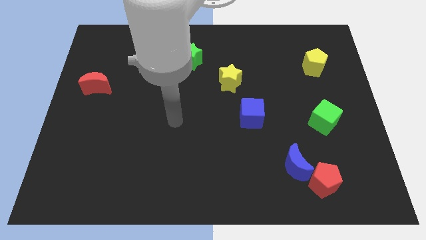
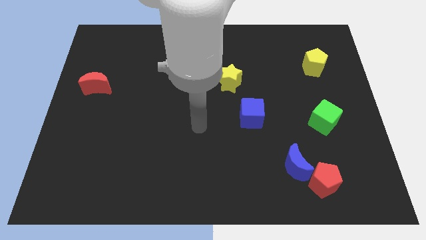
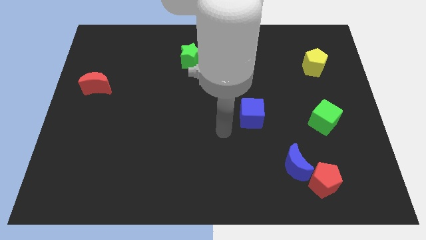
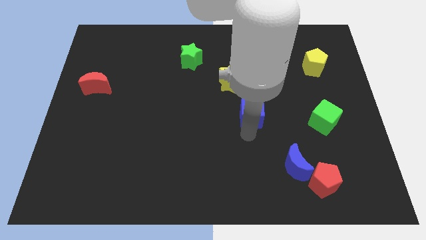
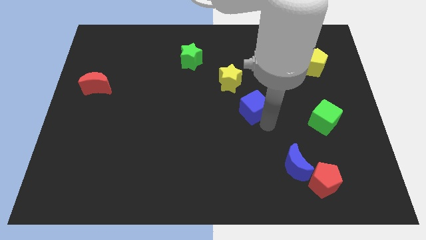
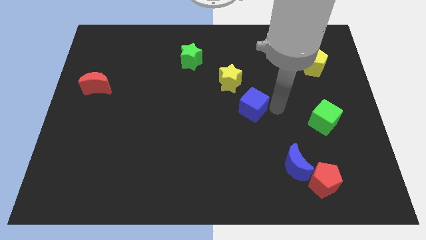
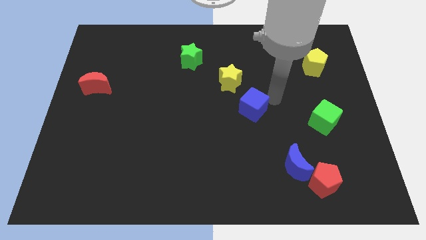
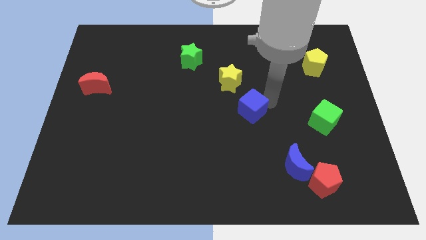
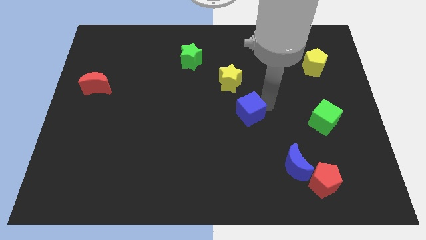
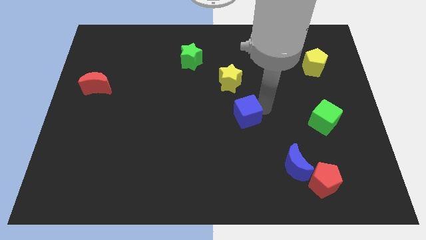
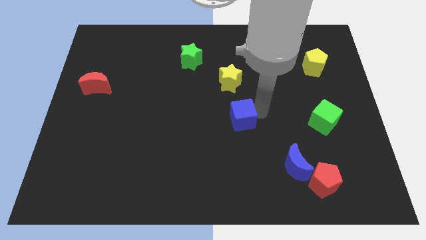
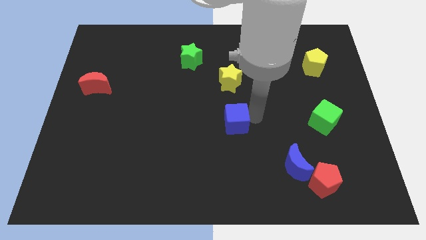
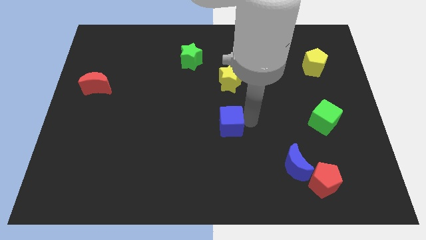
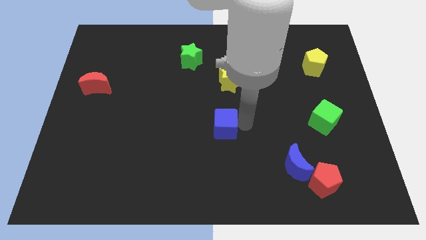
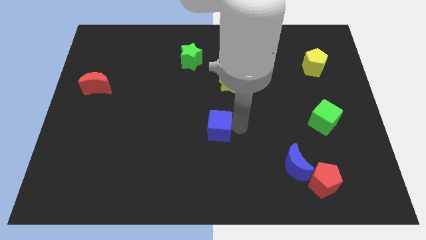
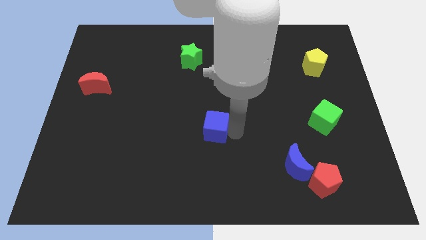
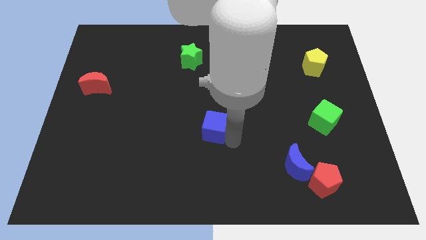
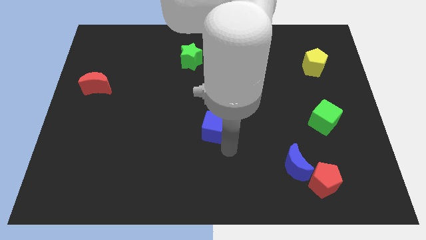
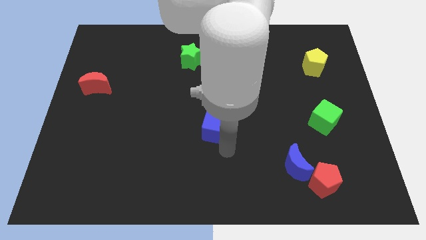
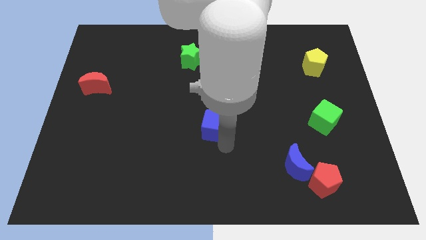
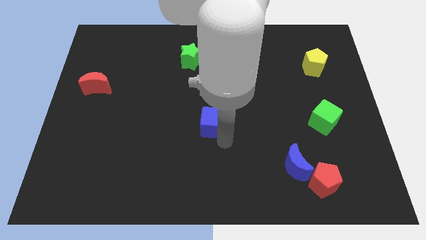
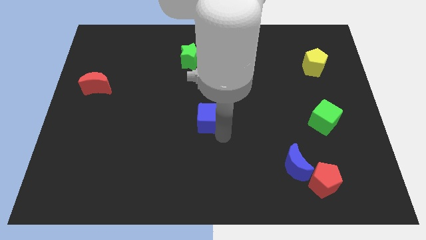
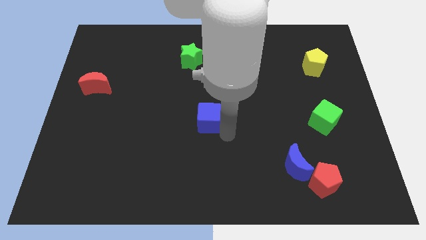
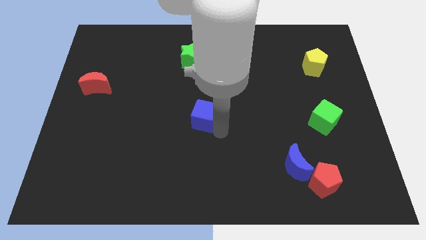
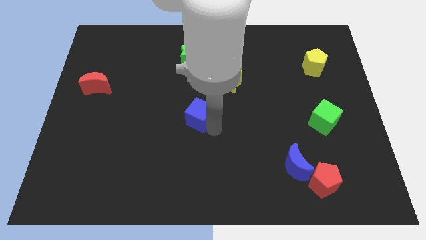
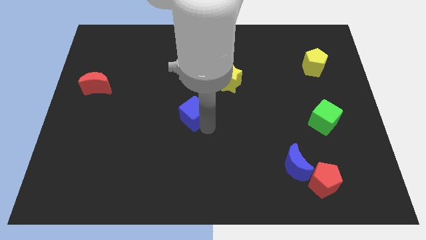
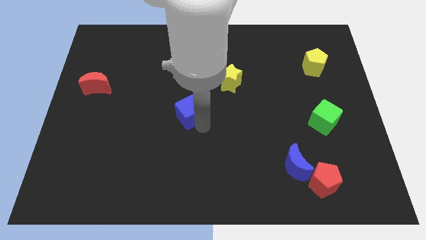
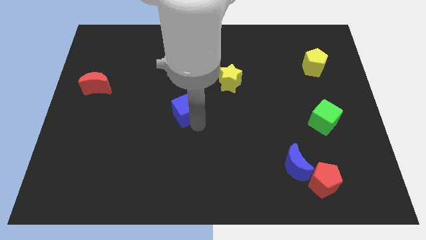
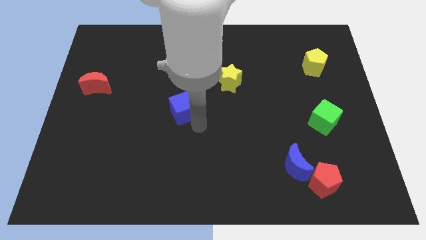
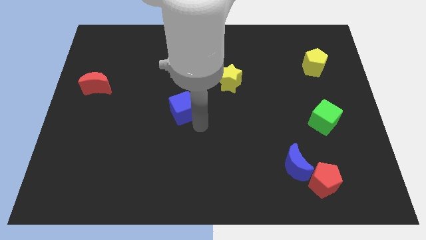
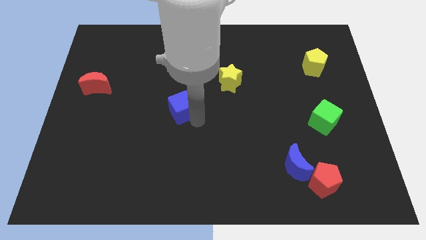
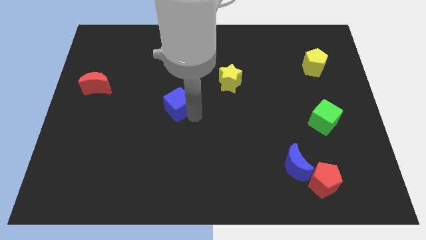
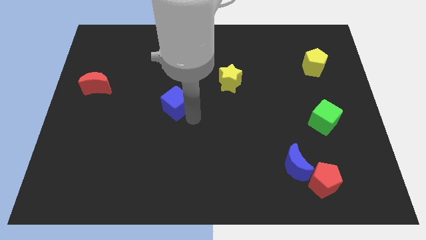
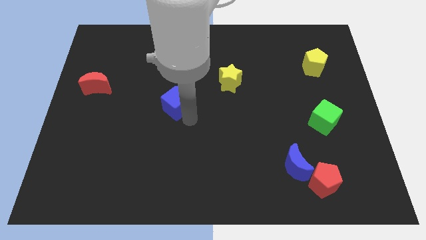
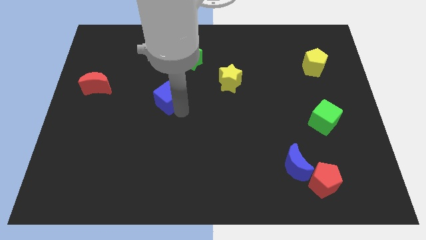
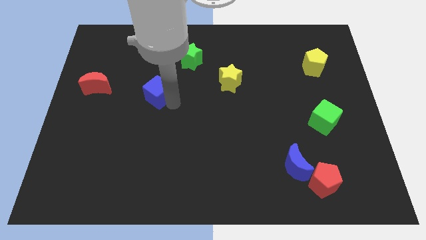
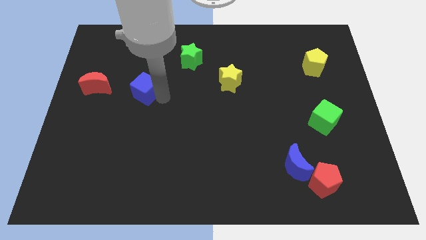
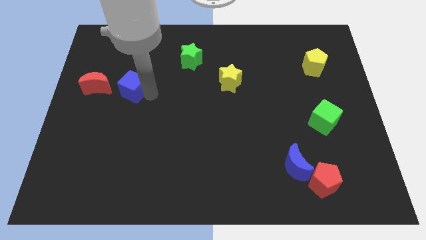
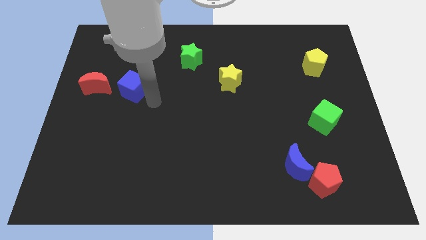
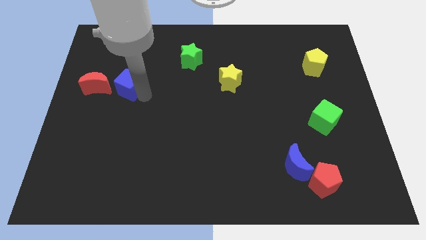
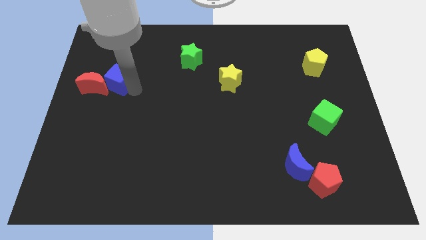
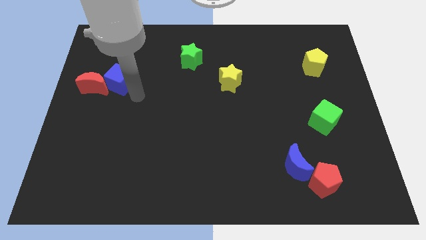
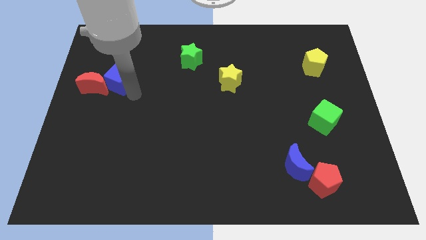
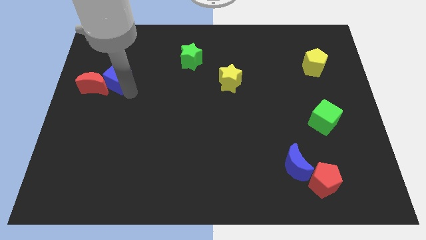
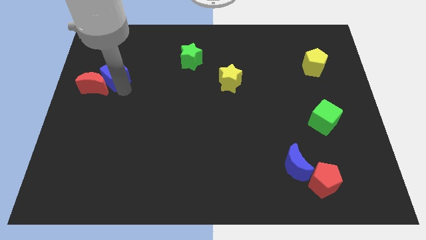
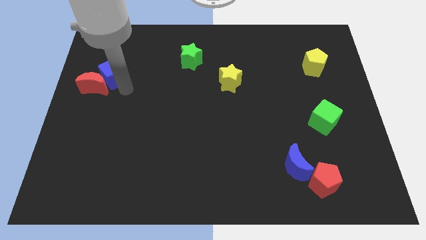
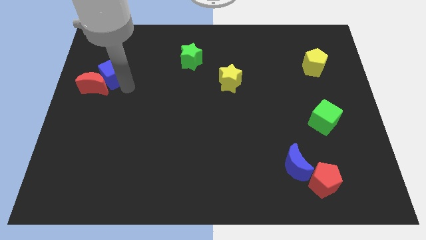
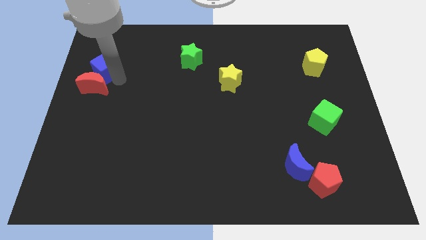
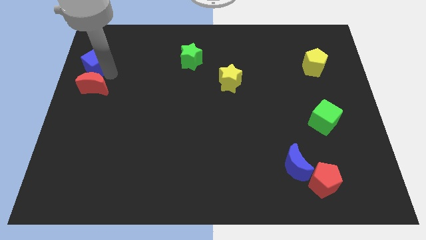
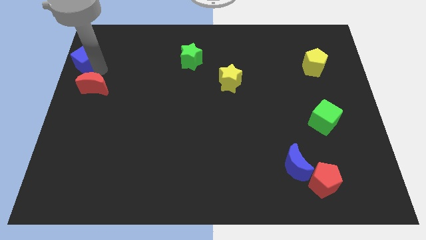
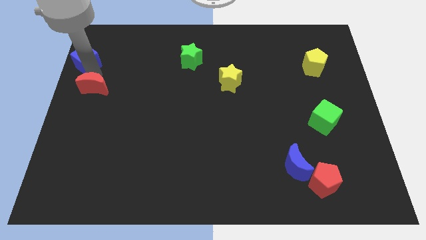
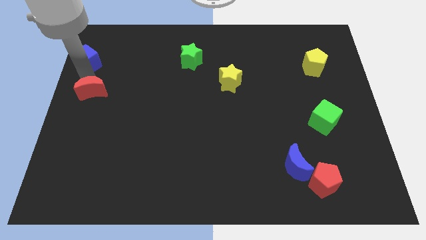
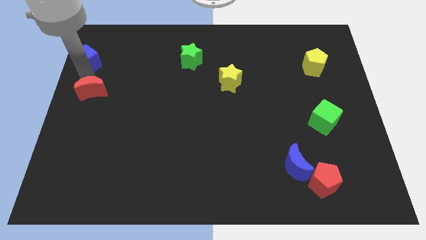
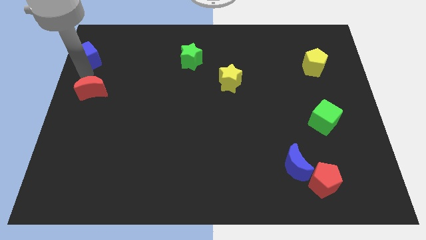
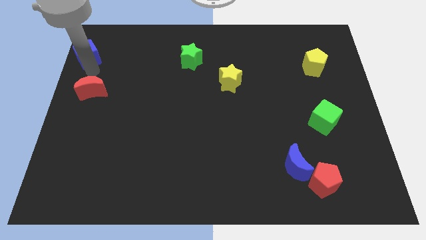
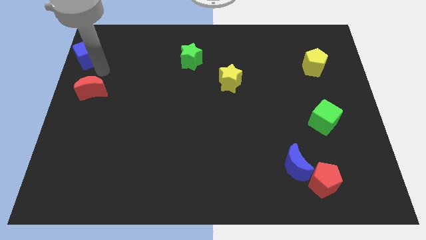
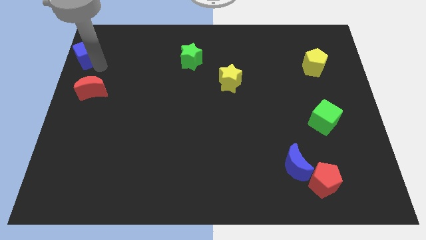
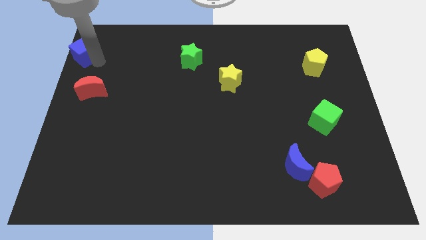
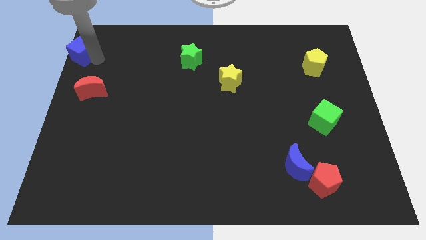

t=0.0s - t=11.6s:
push the blue cube to the top left corner

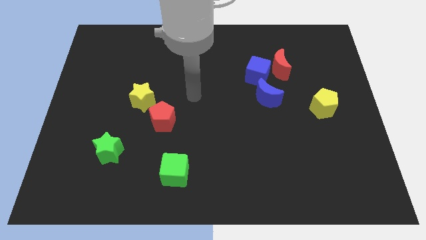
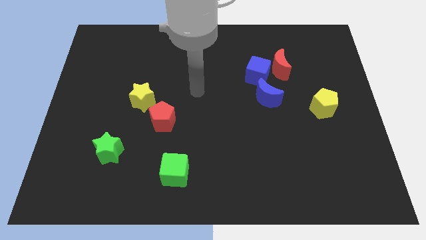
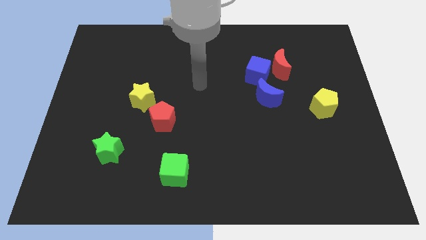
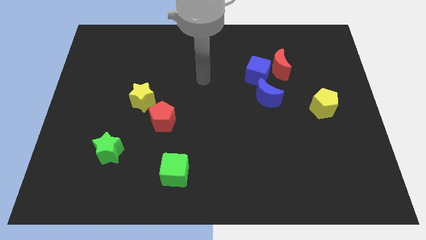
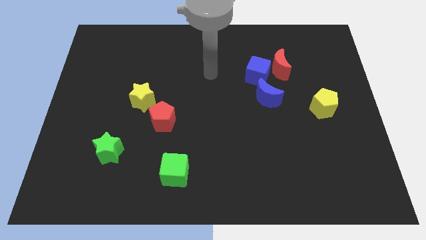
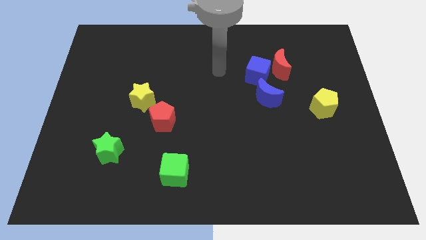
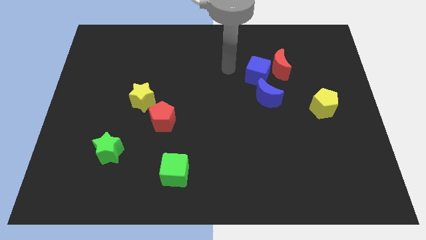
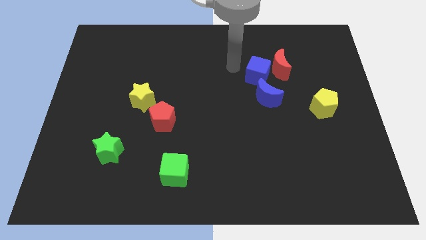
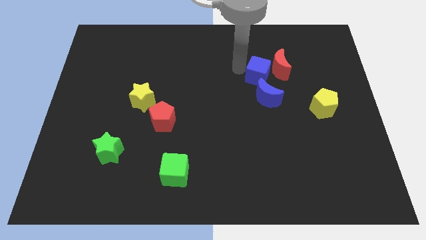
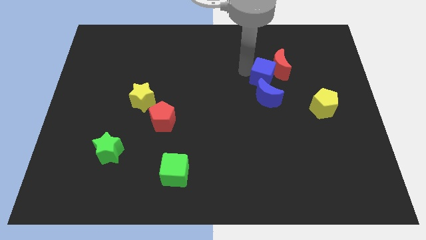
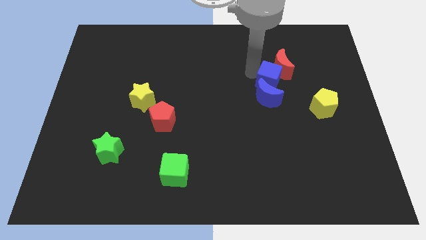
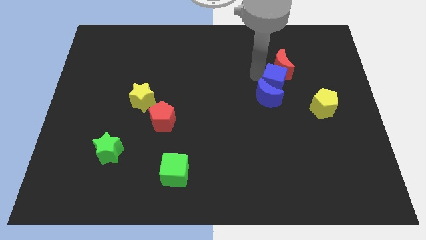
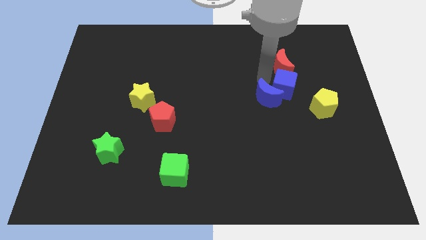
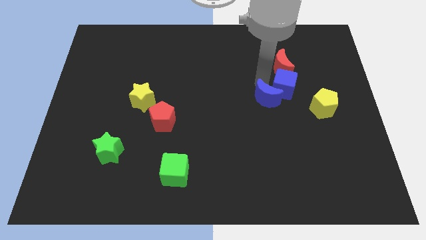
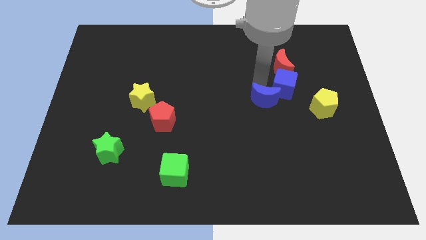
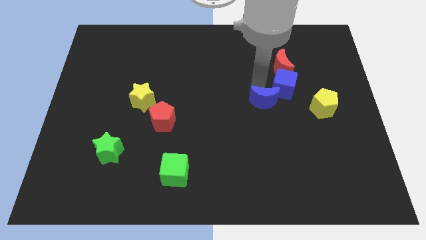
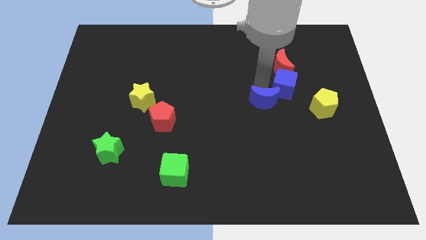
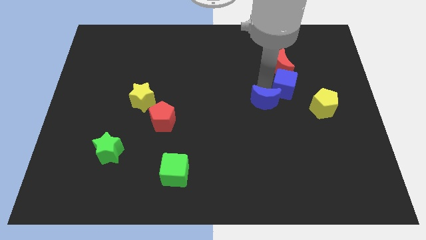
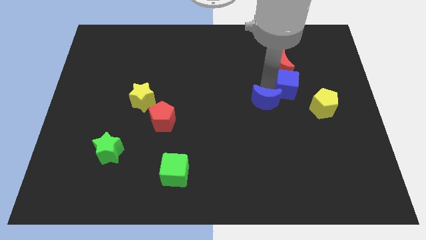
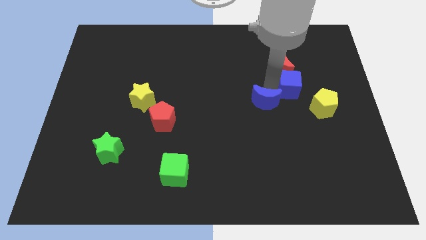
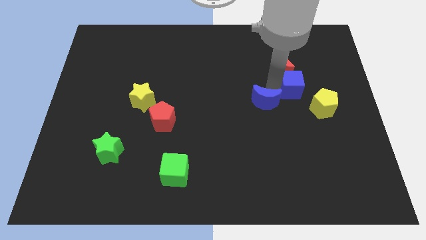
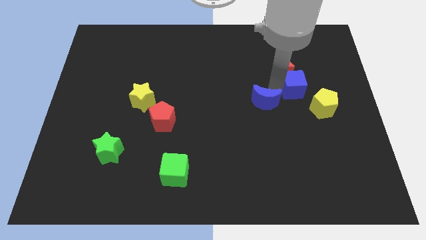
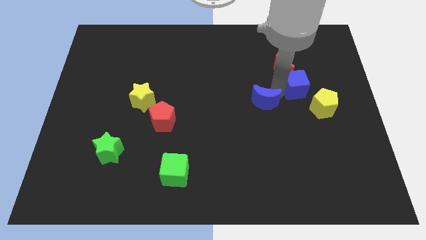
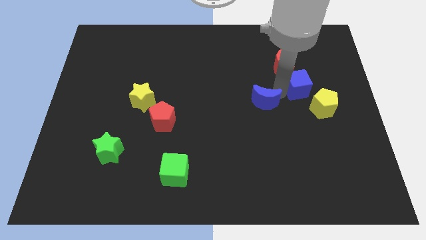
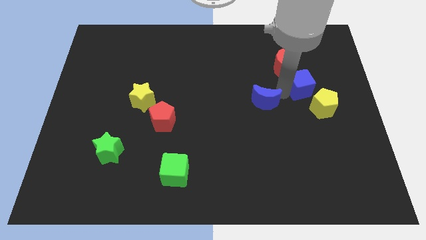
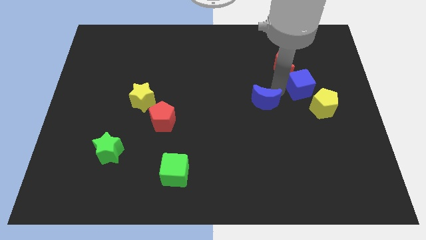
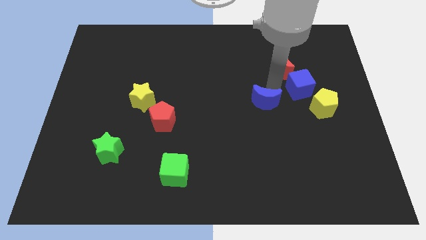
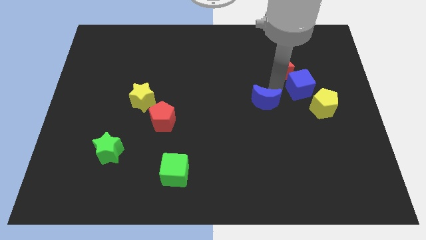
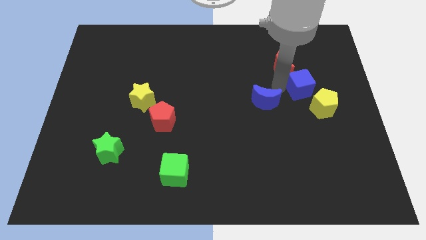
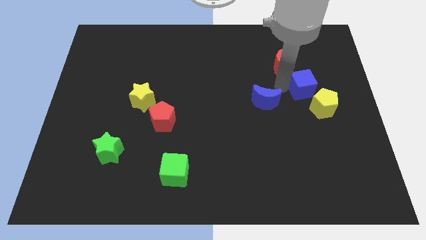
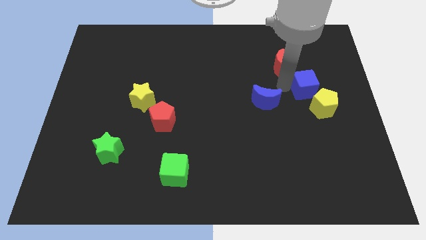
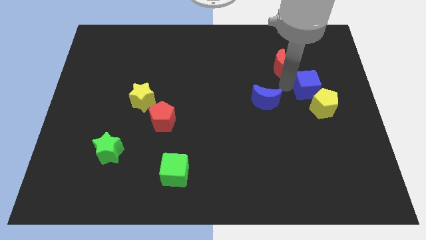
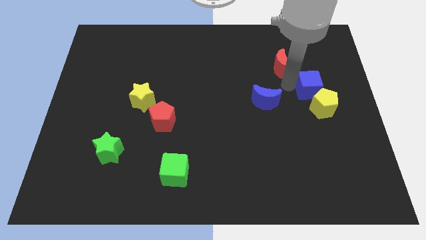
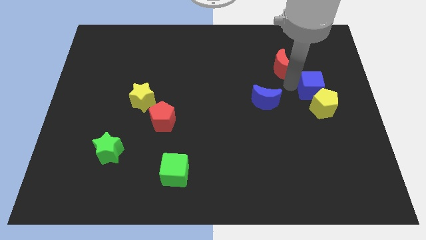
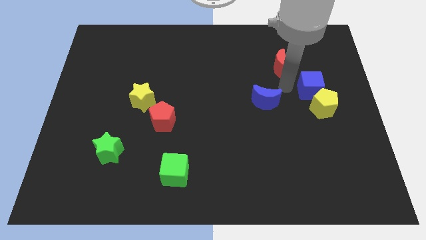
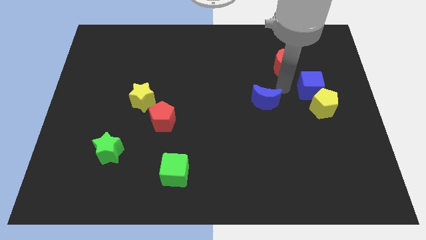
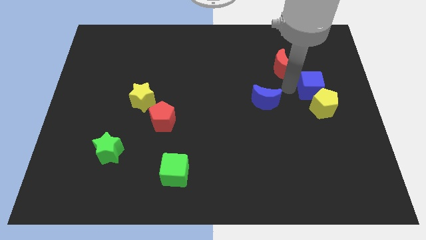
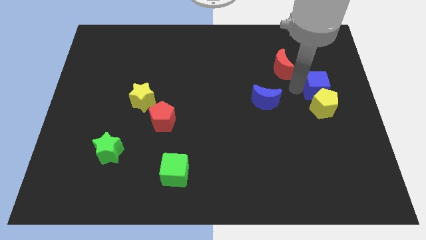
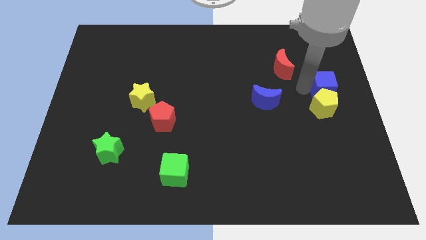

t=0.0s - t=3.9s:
push the blue cube to the right side of the board
